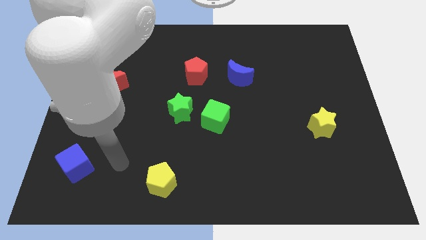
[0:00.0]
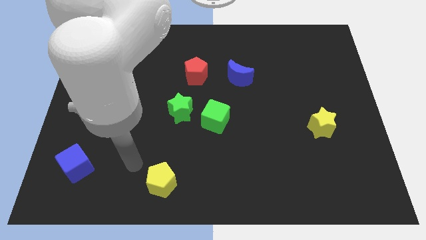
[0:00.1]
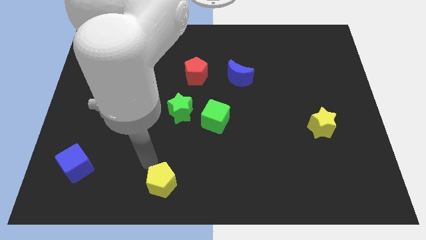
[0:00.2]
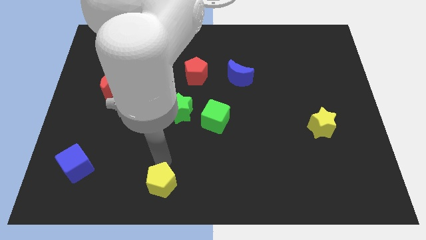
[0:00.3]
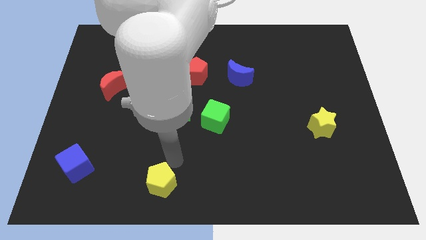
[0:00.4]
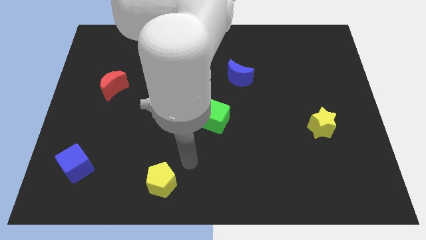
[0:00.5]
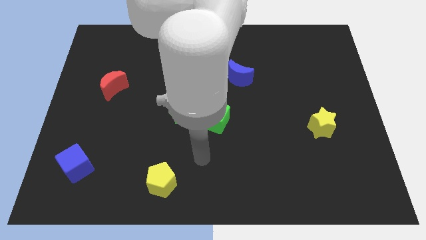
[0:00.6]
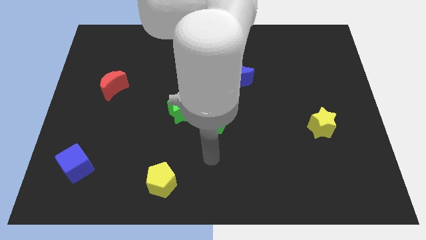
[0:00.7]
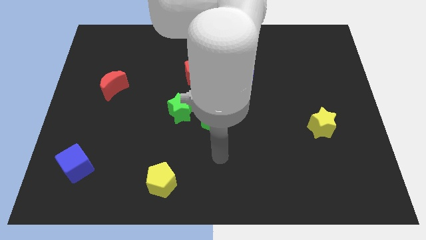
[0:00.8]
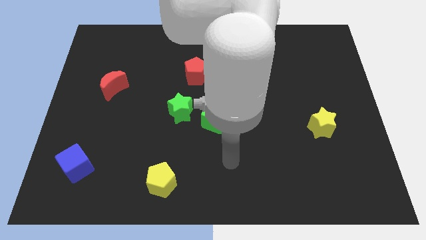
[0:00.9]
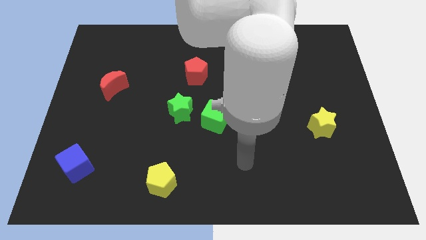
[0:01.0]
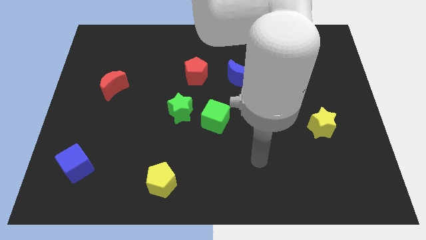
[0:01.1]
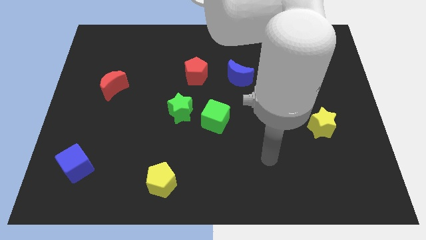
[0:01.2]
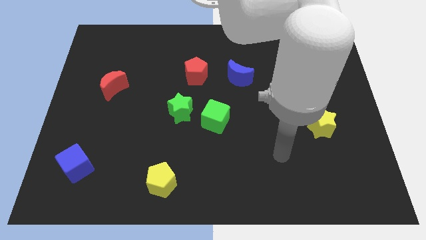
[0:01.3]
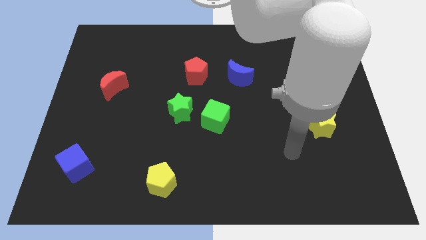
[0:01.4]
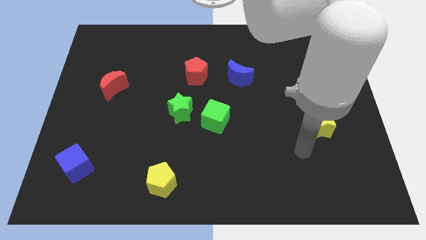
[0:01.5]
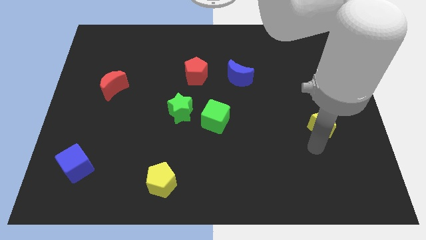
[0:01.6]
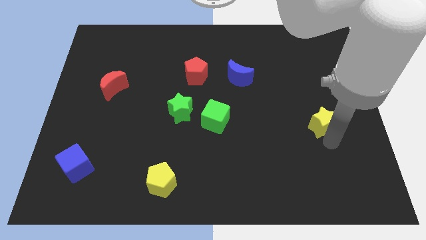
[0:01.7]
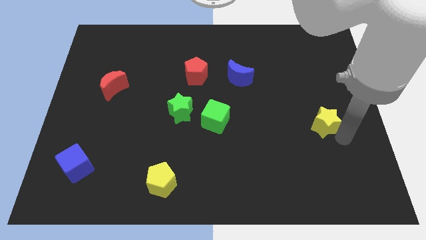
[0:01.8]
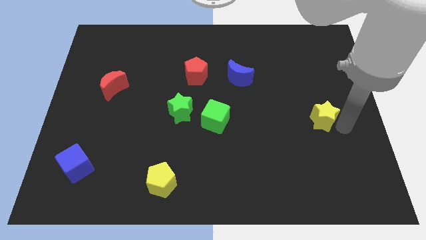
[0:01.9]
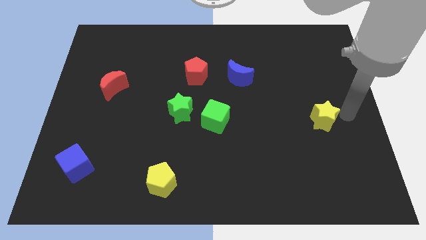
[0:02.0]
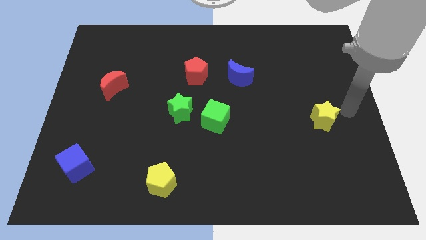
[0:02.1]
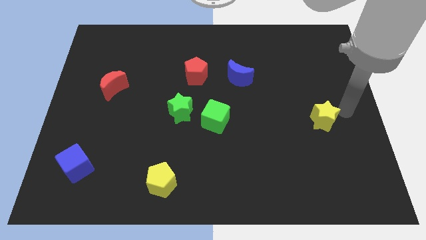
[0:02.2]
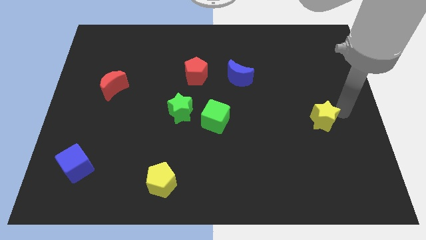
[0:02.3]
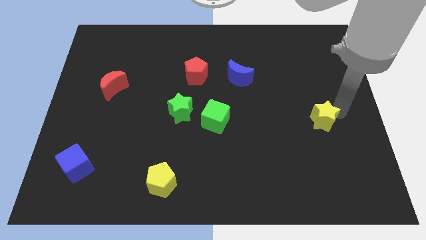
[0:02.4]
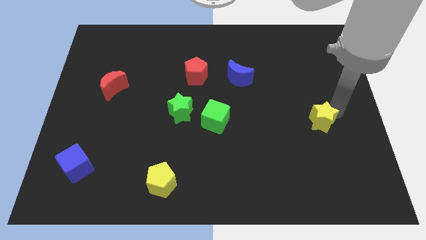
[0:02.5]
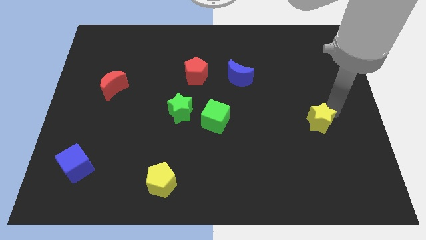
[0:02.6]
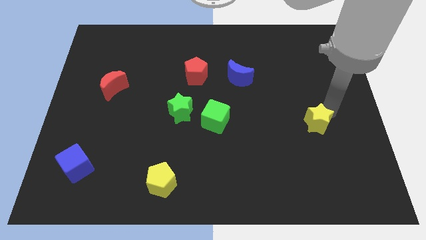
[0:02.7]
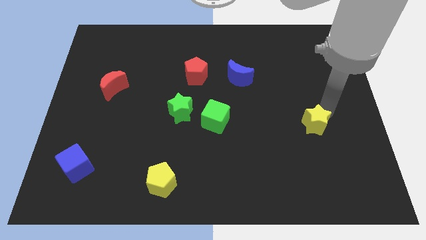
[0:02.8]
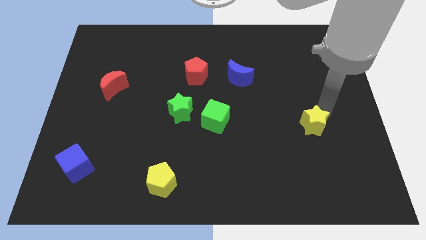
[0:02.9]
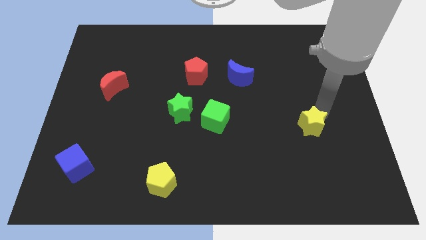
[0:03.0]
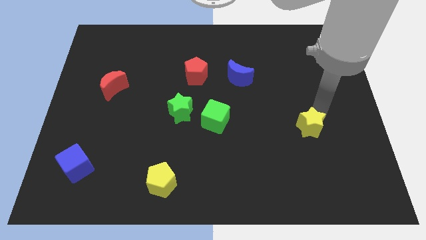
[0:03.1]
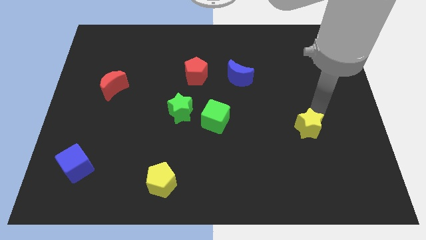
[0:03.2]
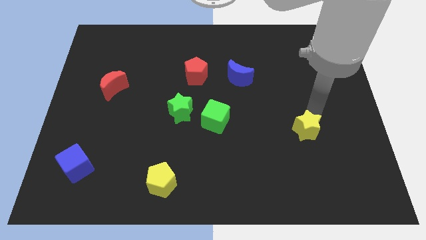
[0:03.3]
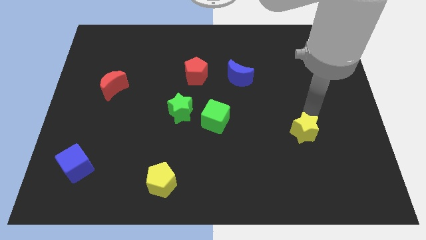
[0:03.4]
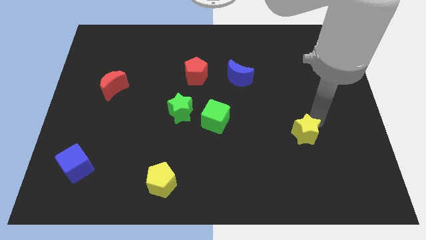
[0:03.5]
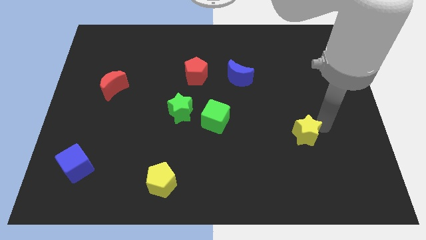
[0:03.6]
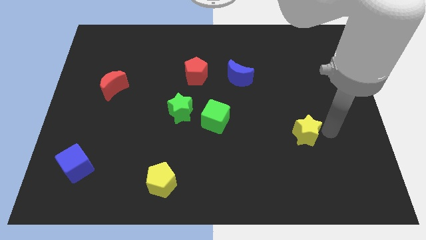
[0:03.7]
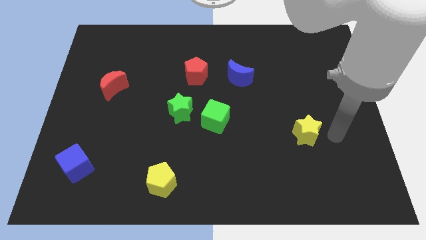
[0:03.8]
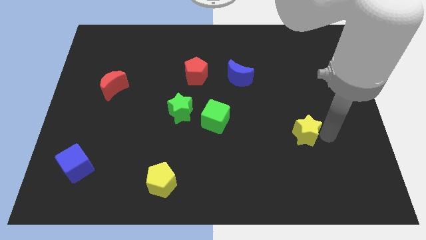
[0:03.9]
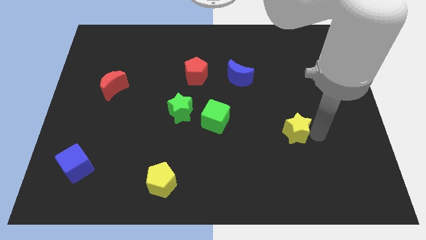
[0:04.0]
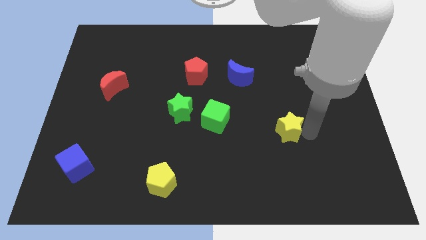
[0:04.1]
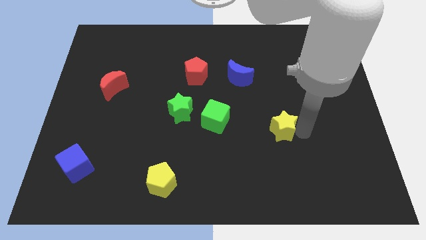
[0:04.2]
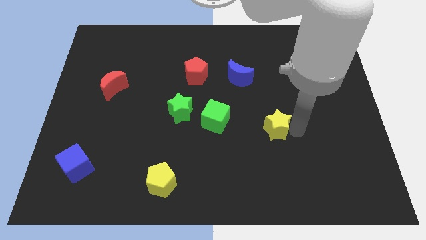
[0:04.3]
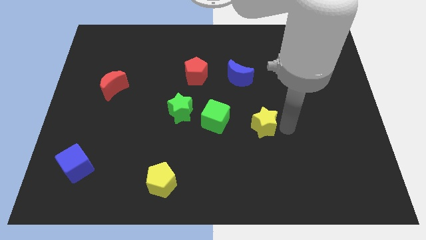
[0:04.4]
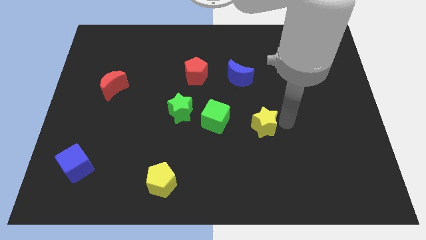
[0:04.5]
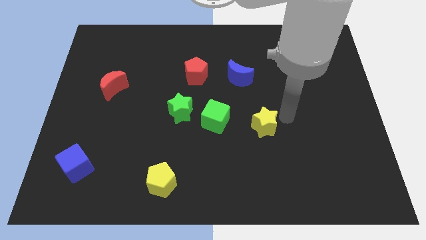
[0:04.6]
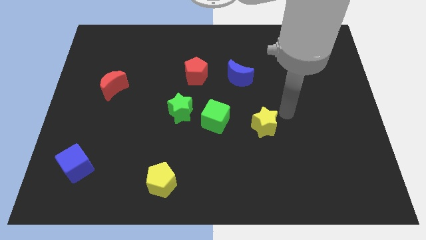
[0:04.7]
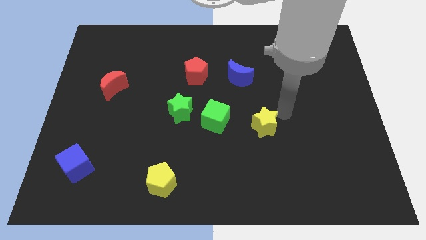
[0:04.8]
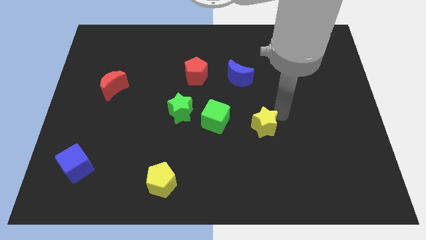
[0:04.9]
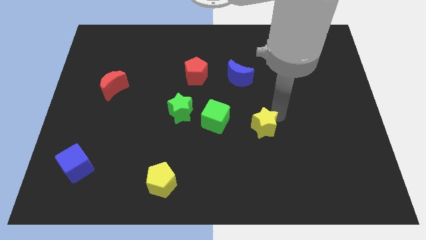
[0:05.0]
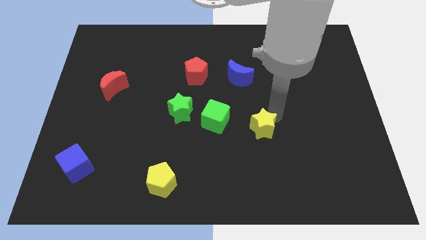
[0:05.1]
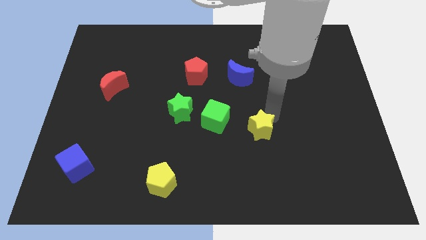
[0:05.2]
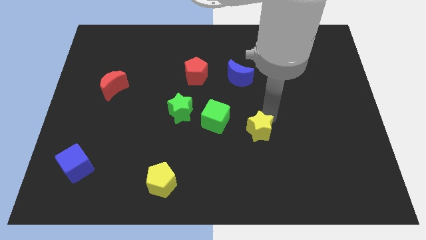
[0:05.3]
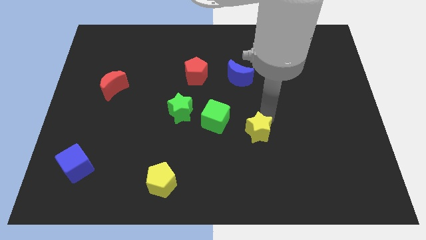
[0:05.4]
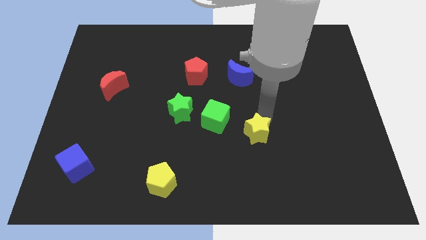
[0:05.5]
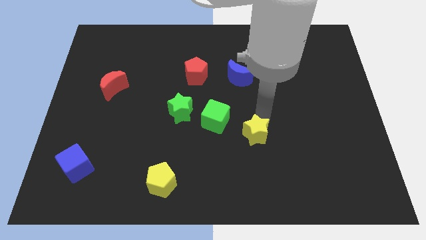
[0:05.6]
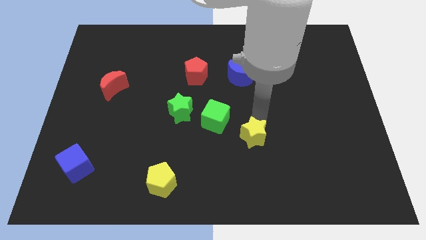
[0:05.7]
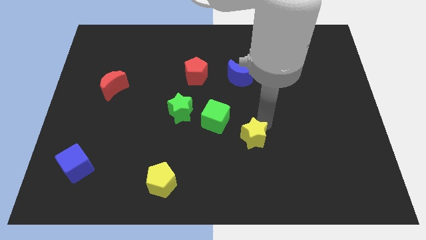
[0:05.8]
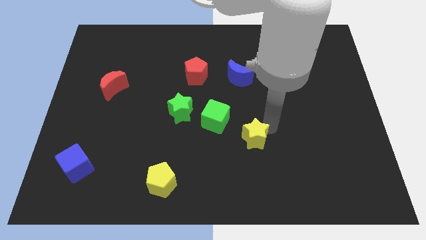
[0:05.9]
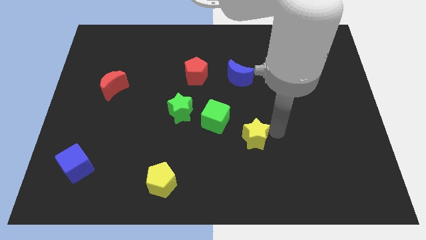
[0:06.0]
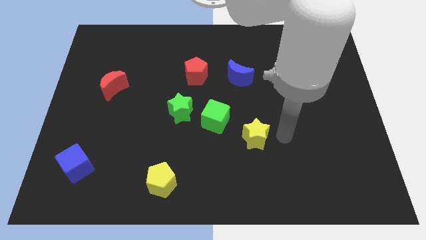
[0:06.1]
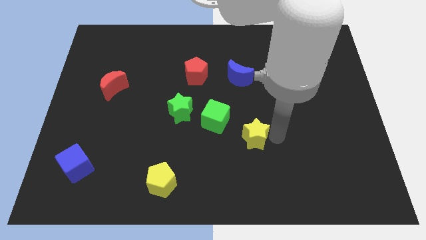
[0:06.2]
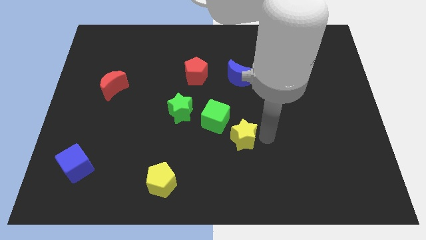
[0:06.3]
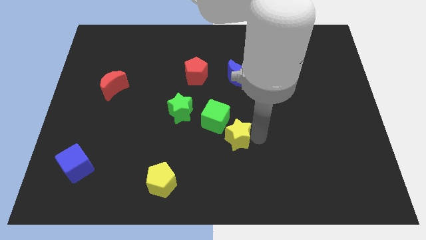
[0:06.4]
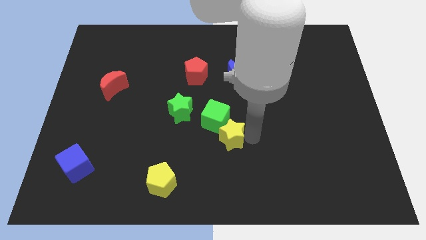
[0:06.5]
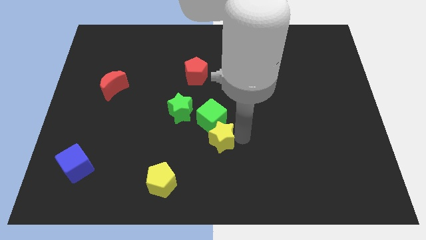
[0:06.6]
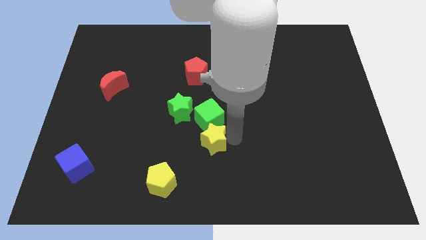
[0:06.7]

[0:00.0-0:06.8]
put the yellow star diagonally down and to the left of the green cube

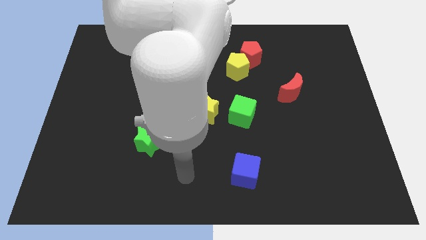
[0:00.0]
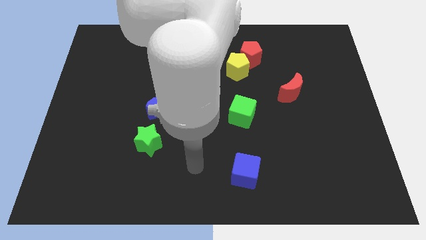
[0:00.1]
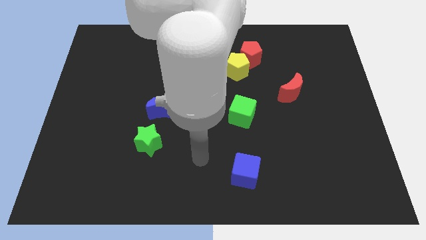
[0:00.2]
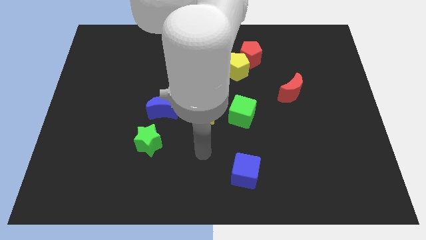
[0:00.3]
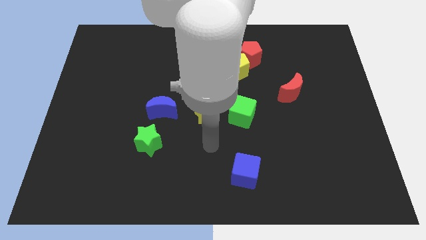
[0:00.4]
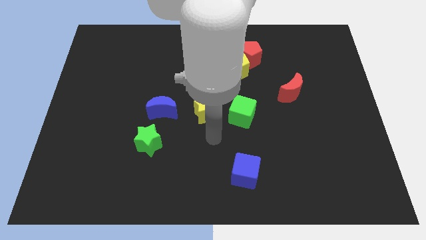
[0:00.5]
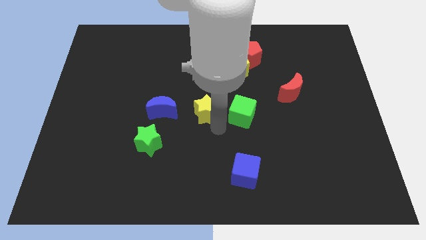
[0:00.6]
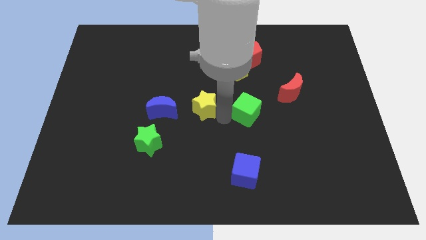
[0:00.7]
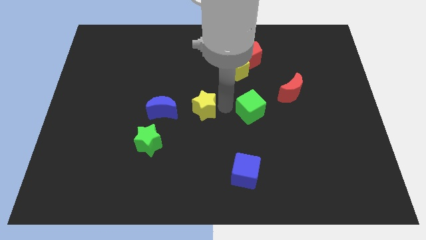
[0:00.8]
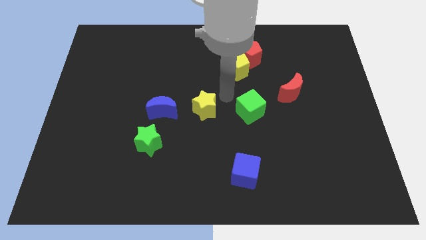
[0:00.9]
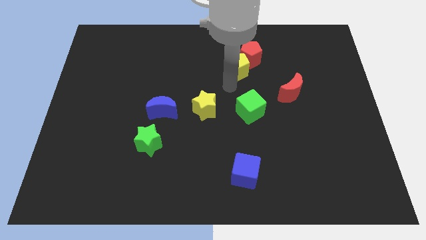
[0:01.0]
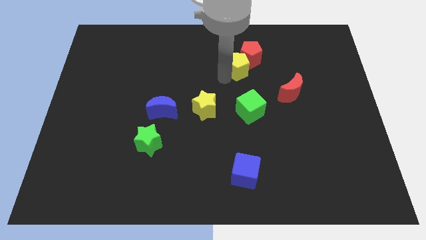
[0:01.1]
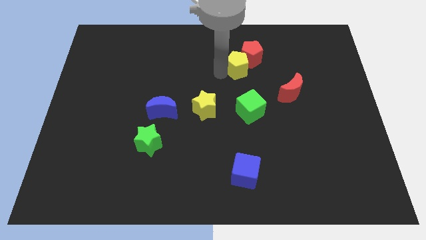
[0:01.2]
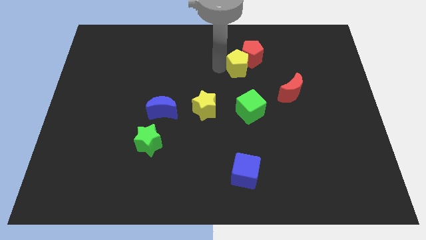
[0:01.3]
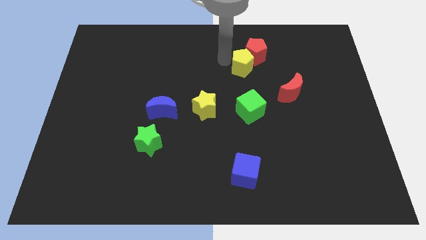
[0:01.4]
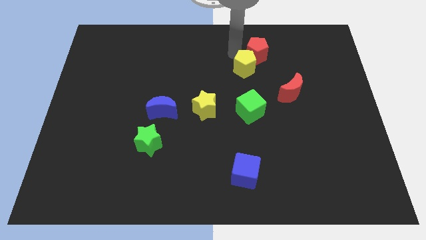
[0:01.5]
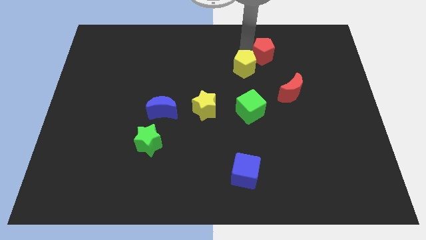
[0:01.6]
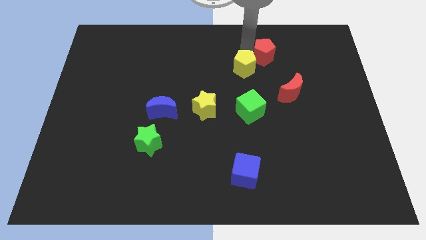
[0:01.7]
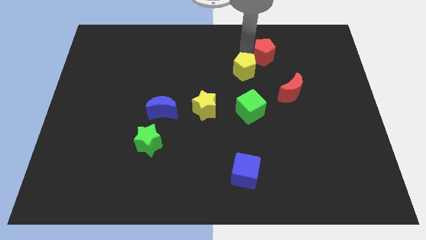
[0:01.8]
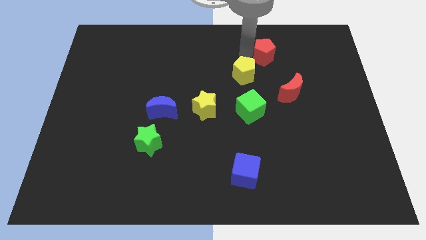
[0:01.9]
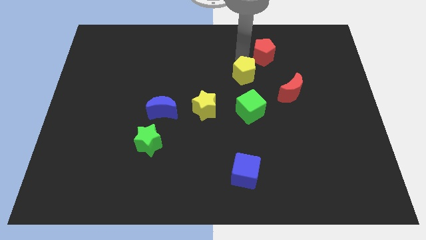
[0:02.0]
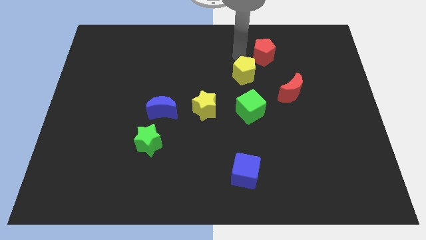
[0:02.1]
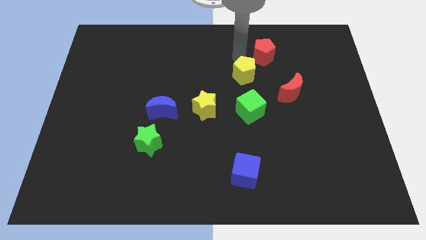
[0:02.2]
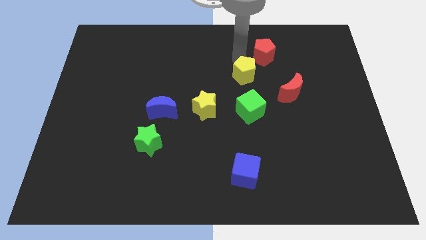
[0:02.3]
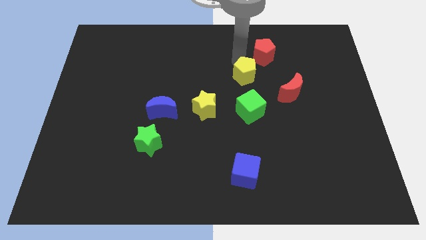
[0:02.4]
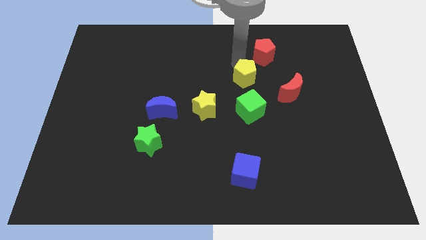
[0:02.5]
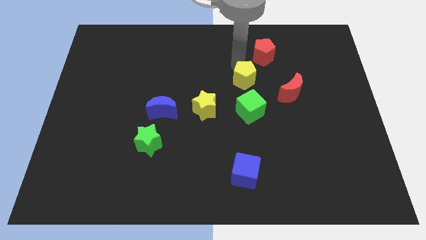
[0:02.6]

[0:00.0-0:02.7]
move the yellow pentagon left of the red moon
